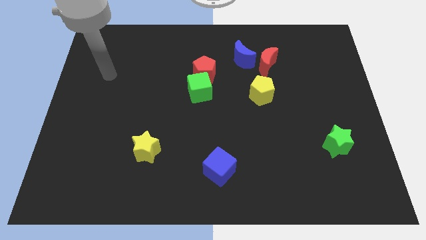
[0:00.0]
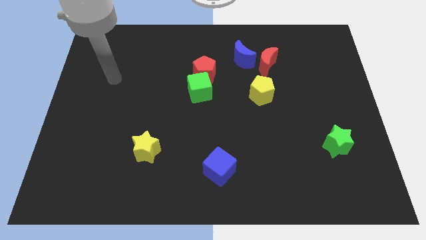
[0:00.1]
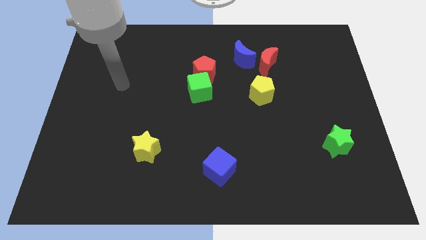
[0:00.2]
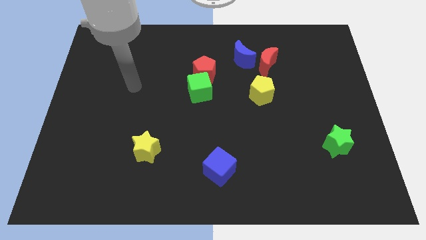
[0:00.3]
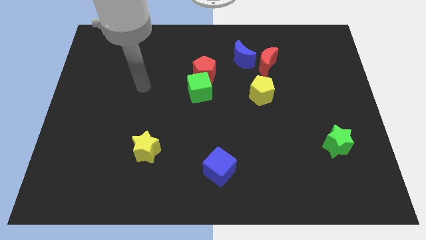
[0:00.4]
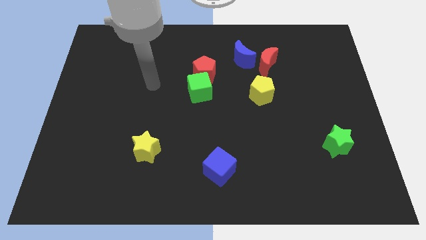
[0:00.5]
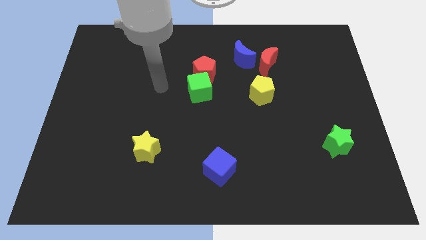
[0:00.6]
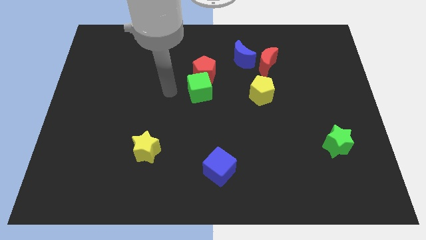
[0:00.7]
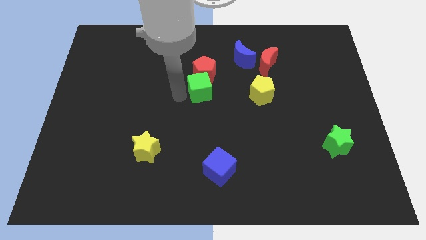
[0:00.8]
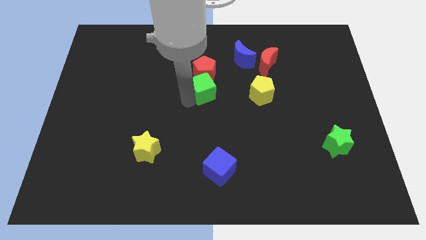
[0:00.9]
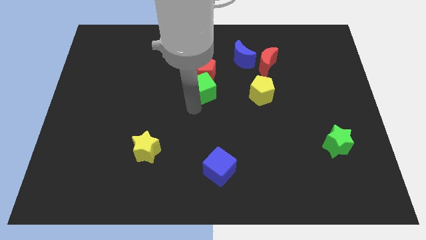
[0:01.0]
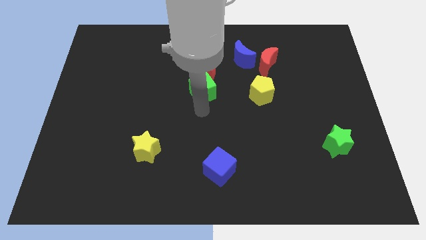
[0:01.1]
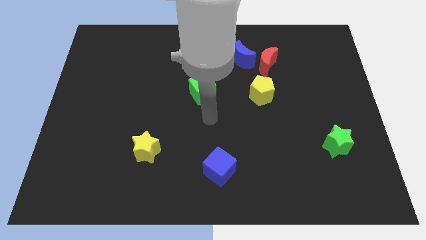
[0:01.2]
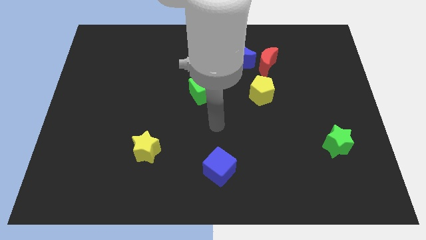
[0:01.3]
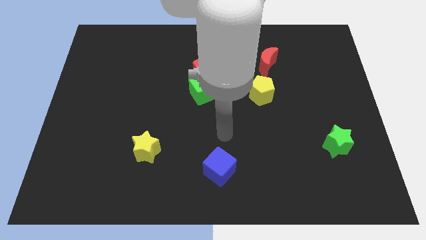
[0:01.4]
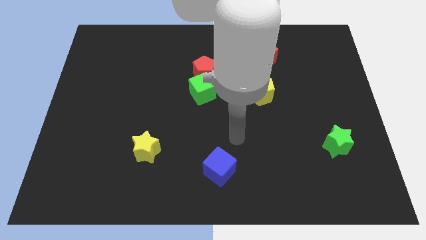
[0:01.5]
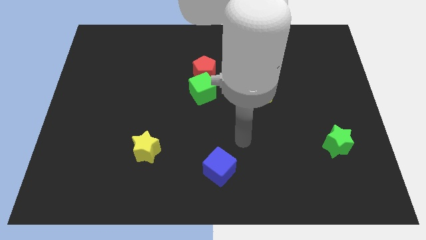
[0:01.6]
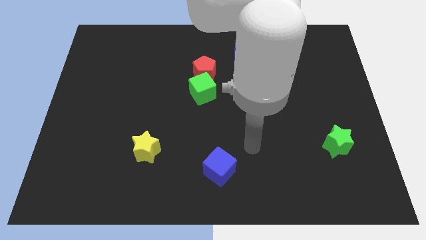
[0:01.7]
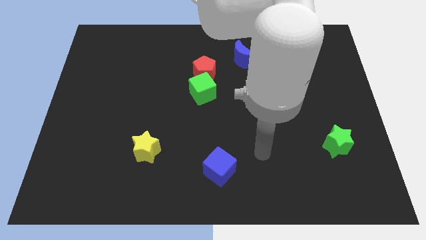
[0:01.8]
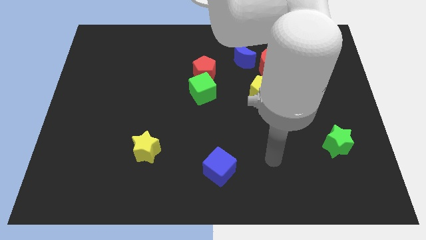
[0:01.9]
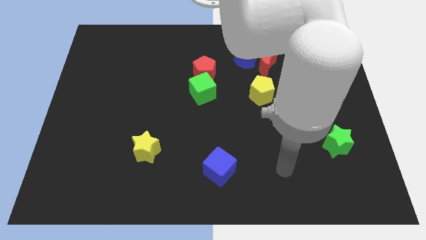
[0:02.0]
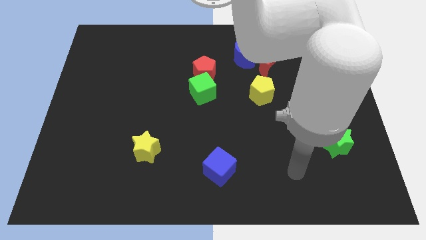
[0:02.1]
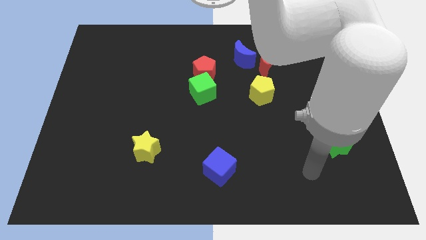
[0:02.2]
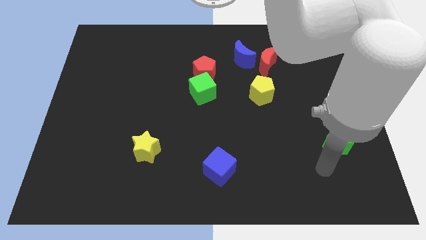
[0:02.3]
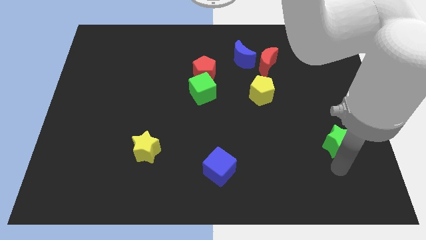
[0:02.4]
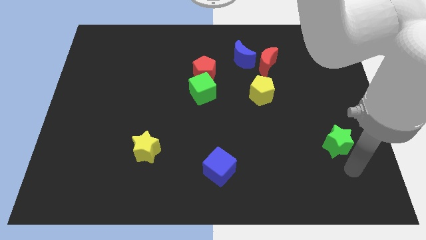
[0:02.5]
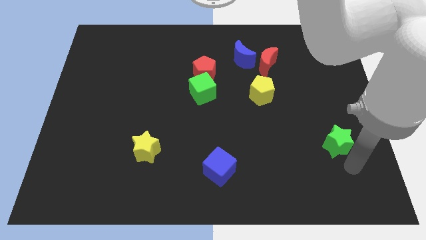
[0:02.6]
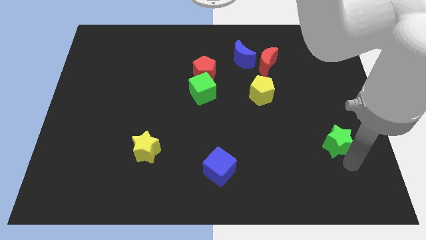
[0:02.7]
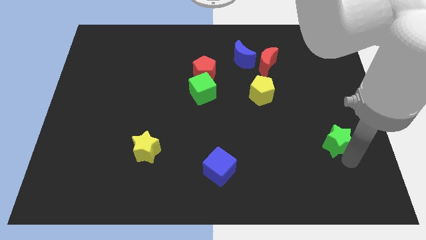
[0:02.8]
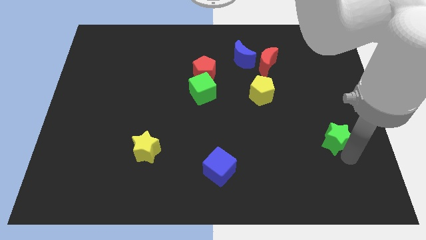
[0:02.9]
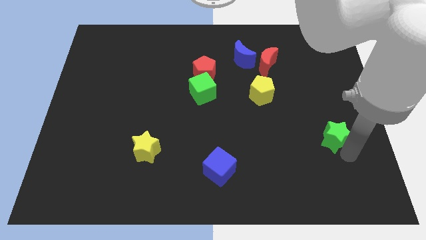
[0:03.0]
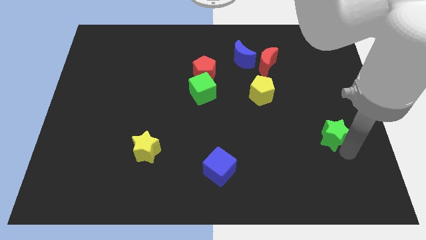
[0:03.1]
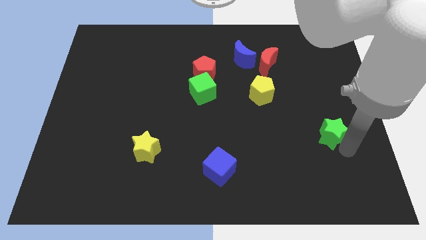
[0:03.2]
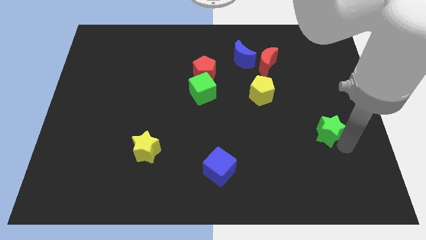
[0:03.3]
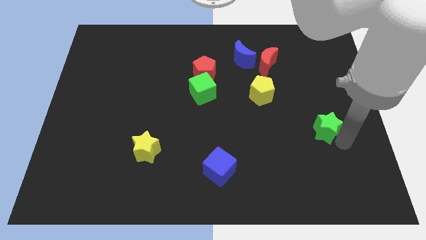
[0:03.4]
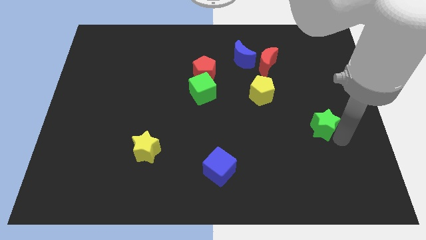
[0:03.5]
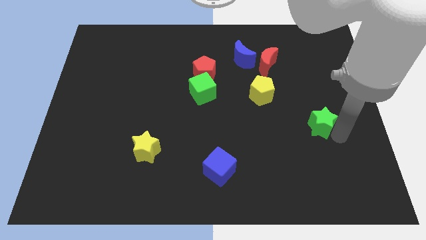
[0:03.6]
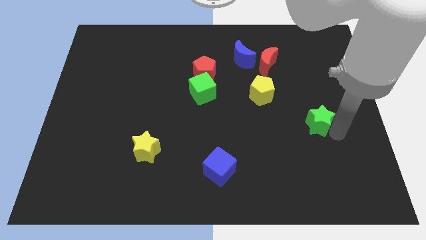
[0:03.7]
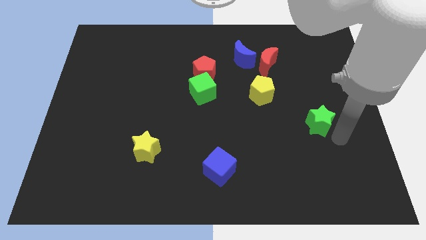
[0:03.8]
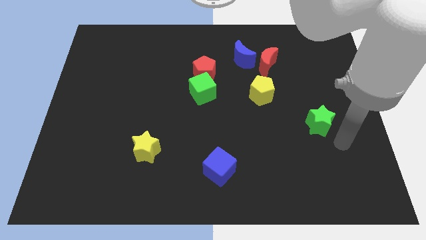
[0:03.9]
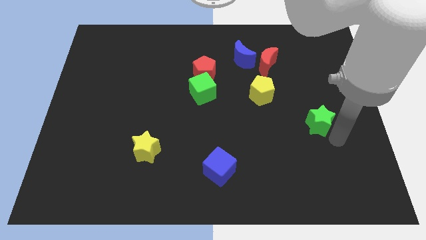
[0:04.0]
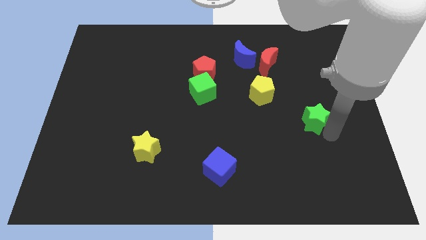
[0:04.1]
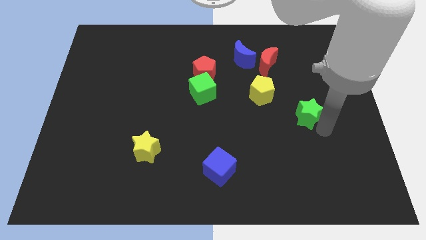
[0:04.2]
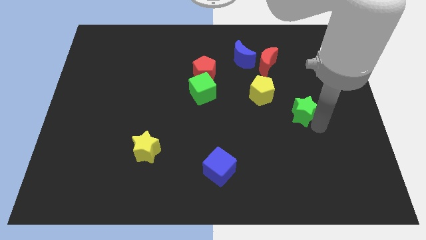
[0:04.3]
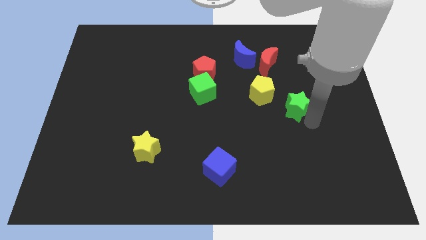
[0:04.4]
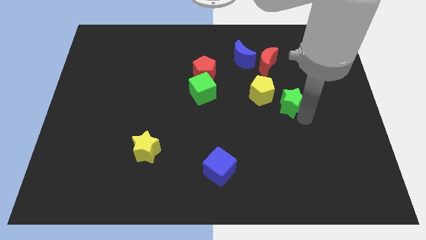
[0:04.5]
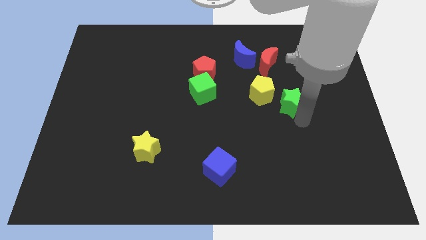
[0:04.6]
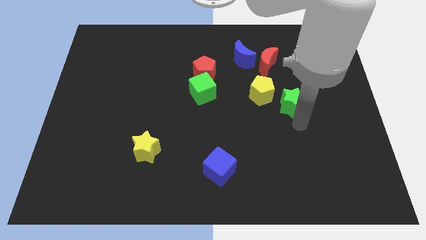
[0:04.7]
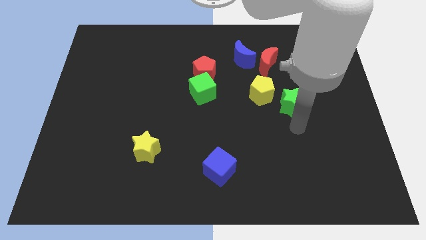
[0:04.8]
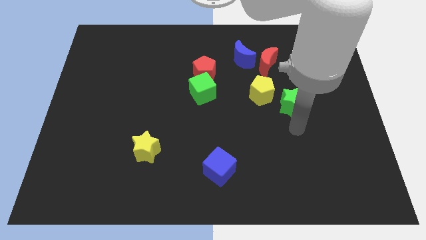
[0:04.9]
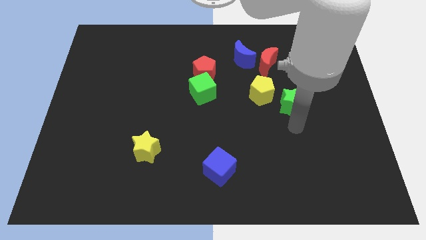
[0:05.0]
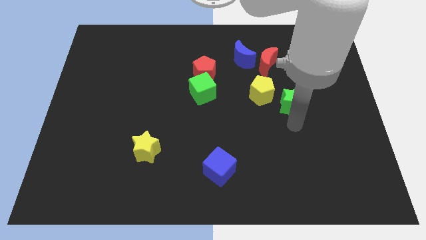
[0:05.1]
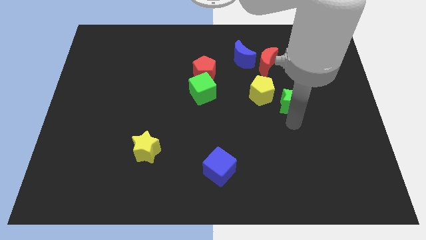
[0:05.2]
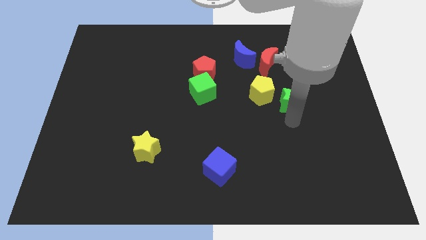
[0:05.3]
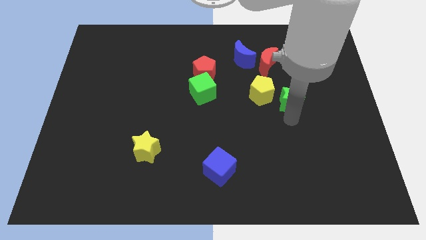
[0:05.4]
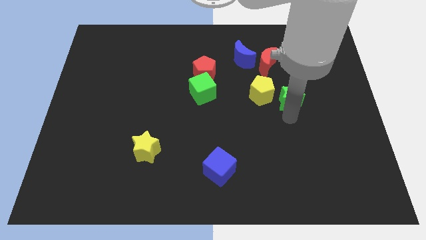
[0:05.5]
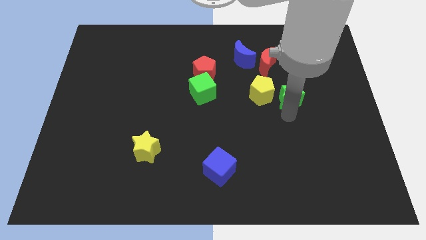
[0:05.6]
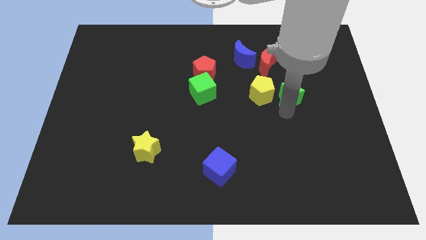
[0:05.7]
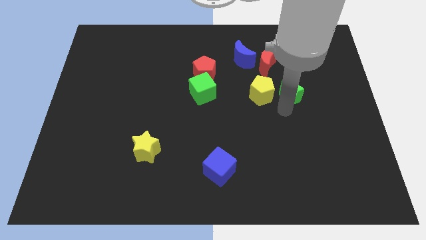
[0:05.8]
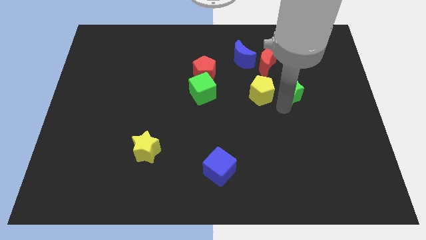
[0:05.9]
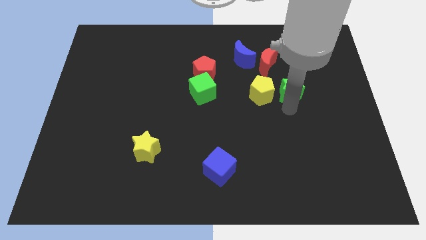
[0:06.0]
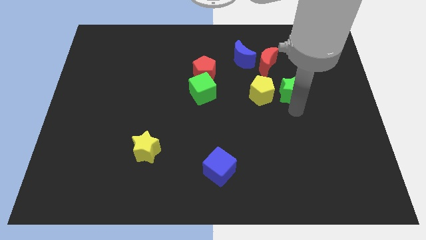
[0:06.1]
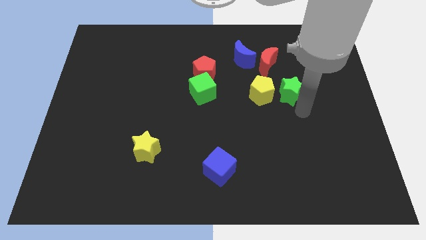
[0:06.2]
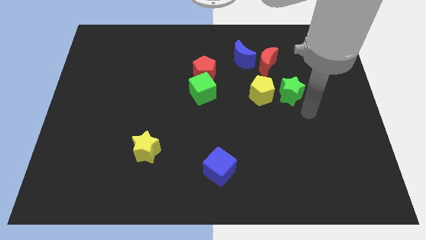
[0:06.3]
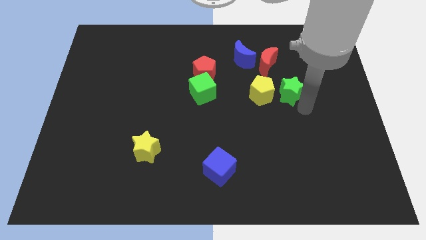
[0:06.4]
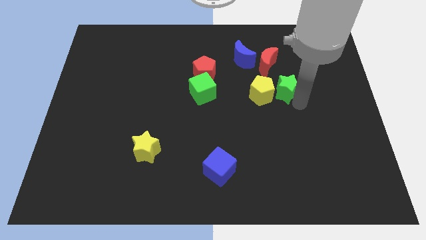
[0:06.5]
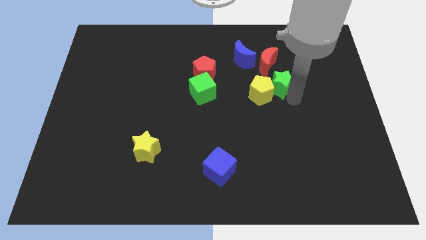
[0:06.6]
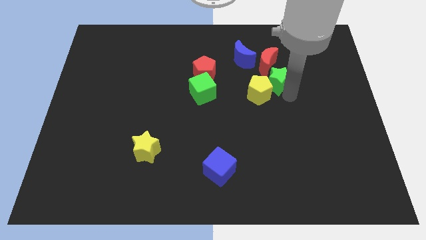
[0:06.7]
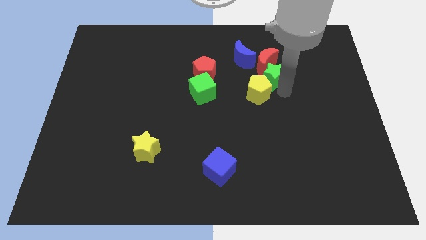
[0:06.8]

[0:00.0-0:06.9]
push the green star towards the red moon
